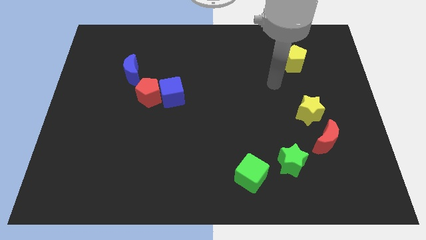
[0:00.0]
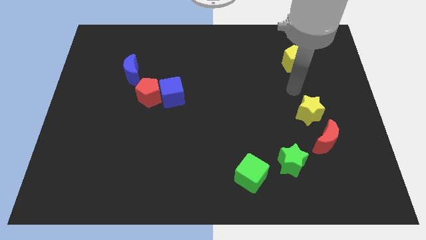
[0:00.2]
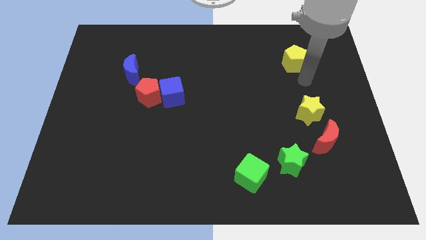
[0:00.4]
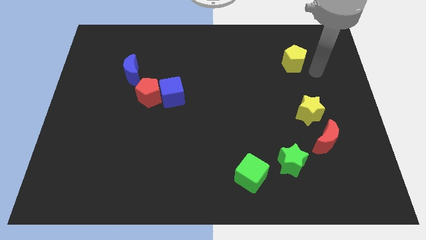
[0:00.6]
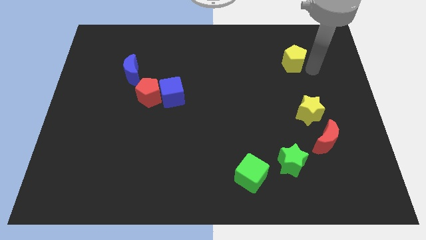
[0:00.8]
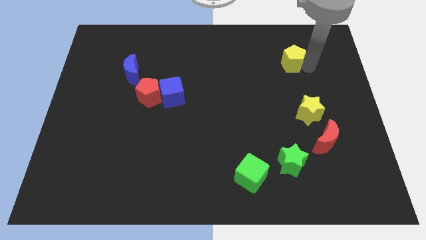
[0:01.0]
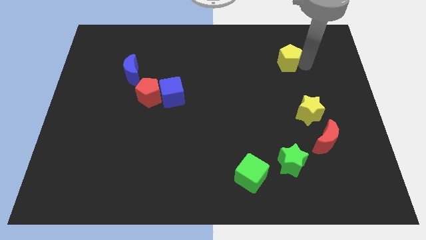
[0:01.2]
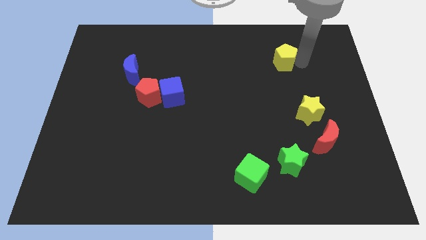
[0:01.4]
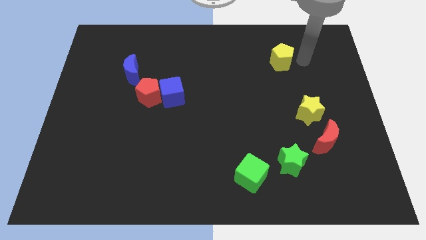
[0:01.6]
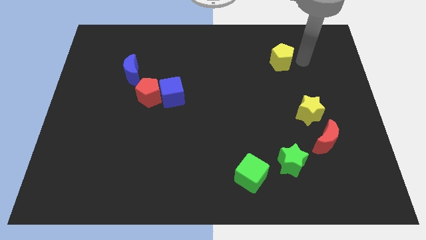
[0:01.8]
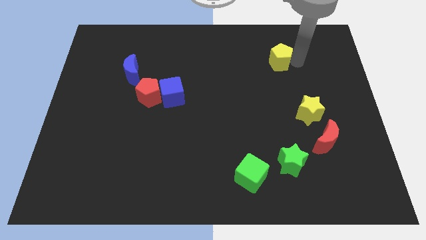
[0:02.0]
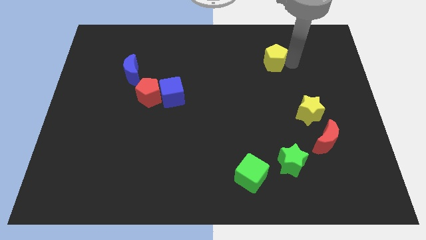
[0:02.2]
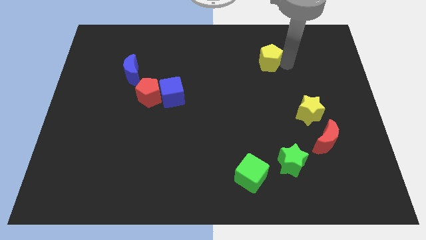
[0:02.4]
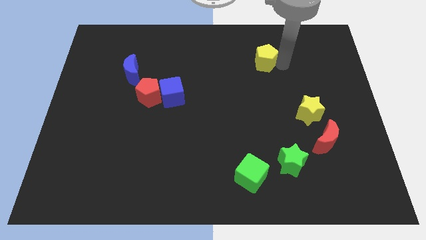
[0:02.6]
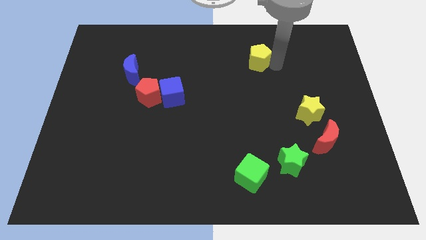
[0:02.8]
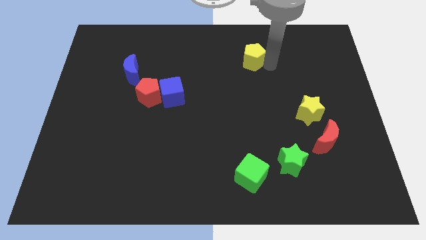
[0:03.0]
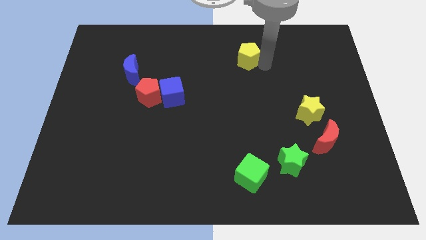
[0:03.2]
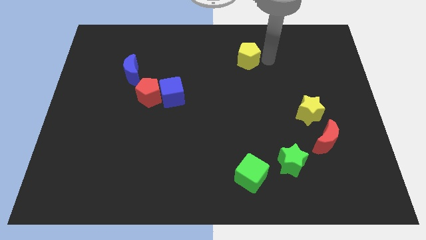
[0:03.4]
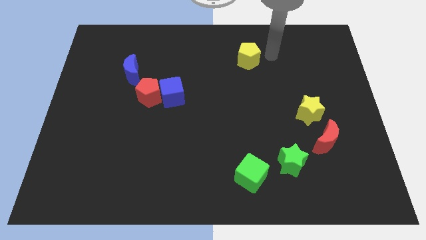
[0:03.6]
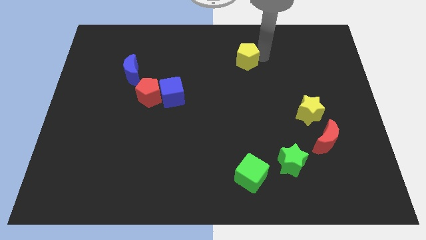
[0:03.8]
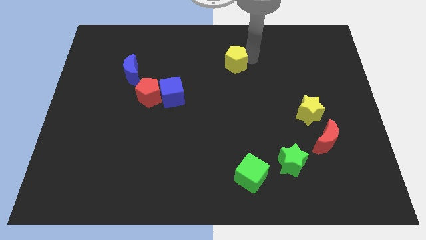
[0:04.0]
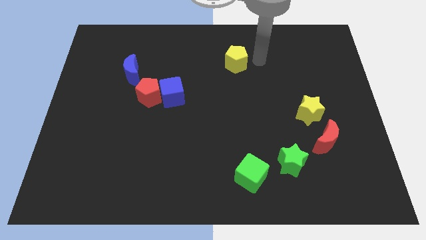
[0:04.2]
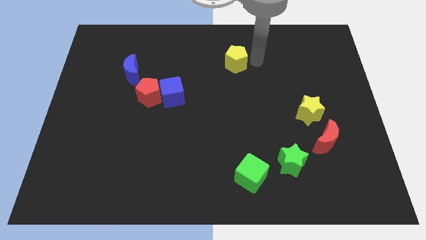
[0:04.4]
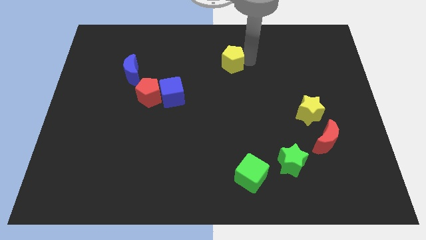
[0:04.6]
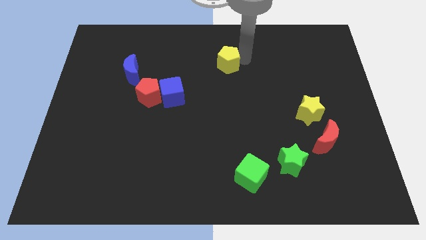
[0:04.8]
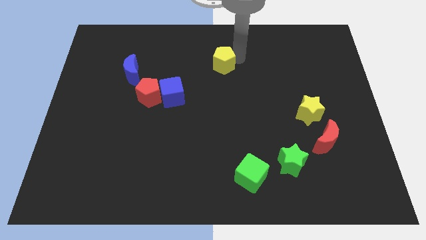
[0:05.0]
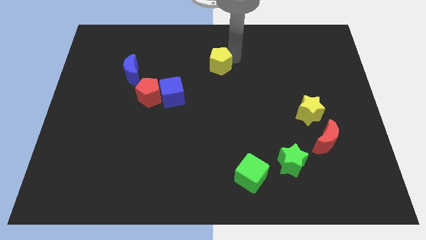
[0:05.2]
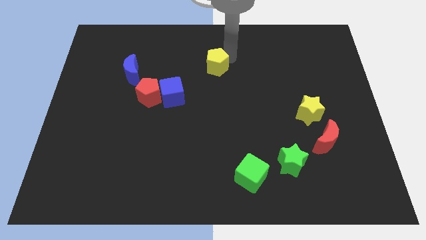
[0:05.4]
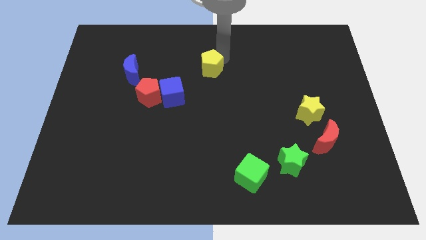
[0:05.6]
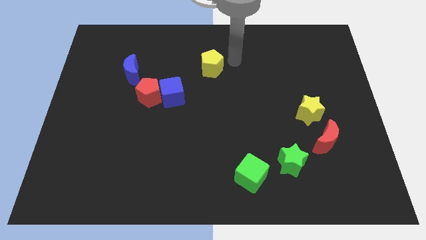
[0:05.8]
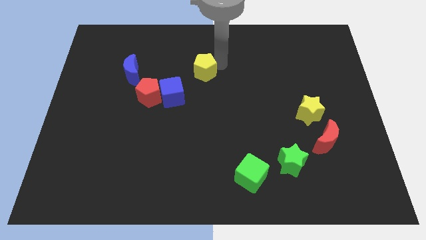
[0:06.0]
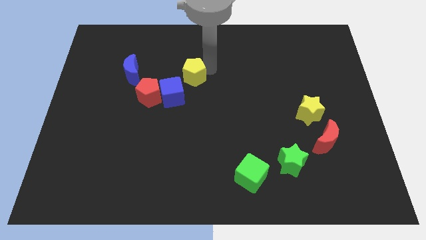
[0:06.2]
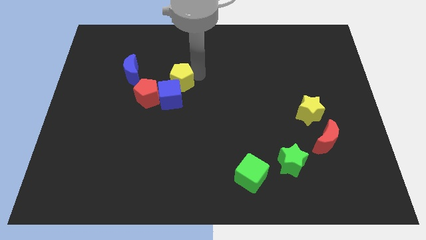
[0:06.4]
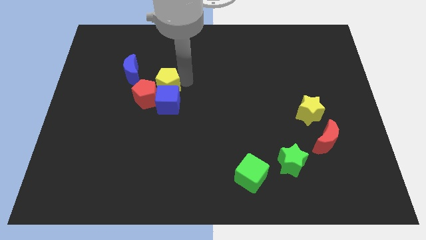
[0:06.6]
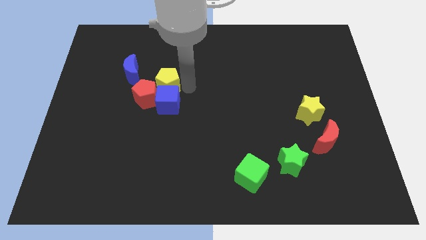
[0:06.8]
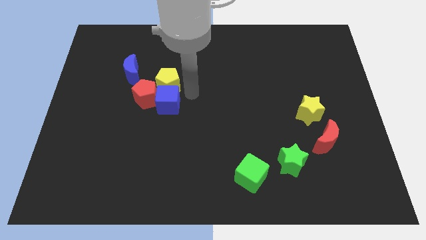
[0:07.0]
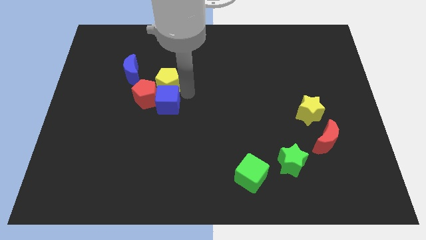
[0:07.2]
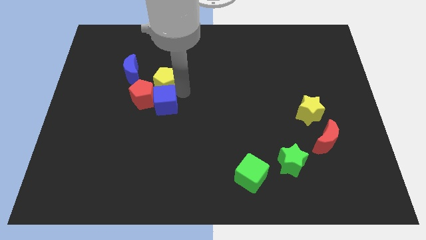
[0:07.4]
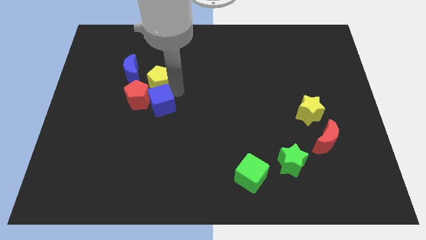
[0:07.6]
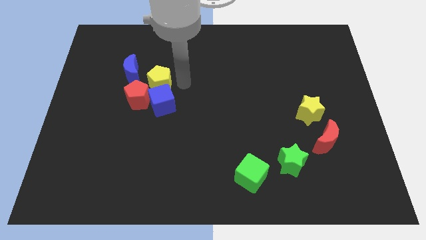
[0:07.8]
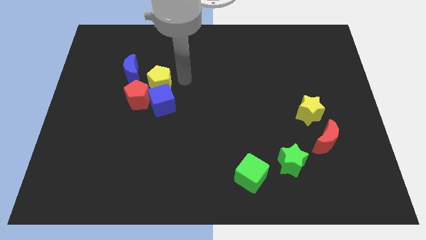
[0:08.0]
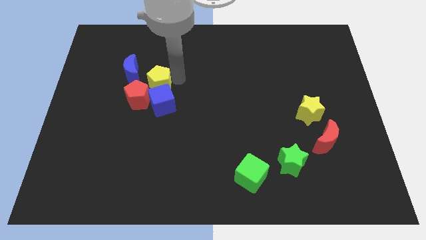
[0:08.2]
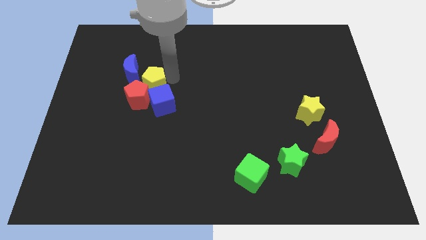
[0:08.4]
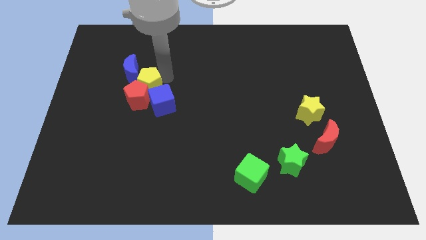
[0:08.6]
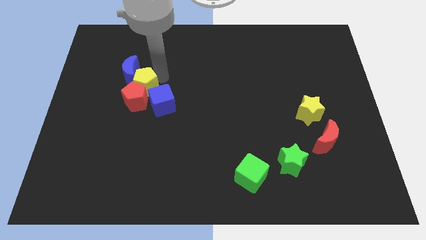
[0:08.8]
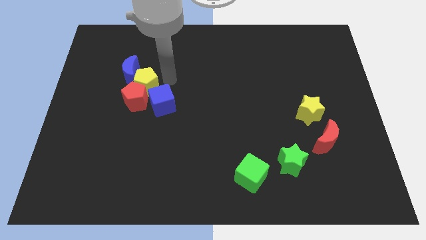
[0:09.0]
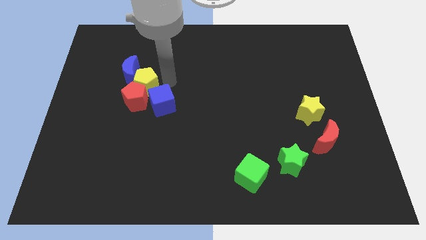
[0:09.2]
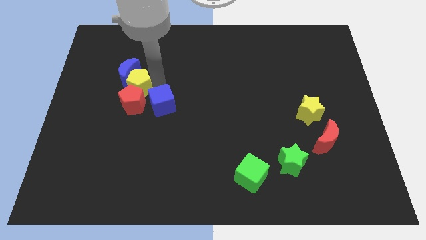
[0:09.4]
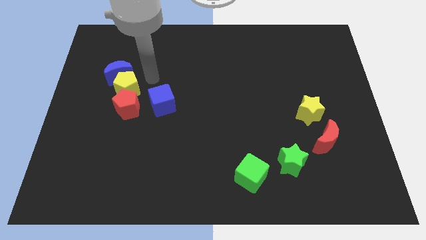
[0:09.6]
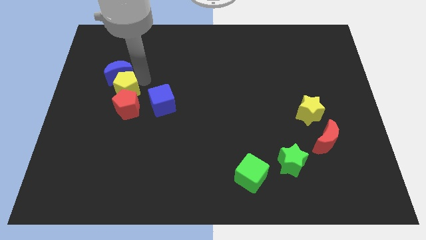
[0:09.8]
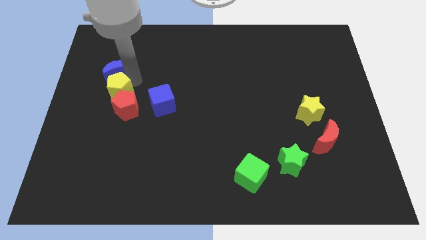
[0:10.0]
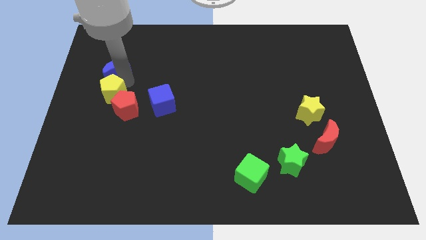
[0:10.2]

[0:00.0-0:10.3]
put the yellow pentagon left of the red pentagon

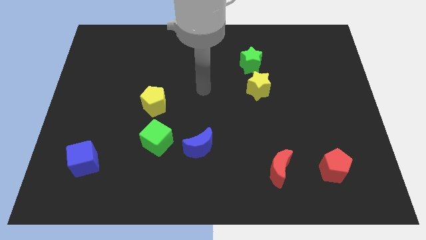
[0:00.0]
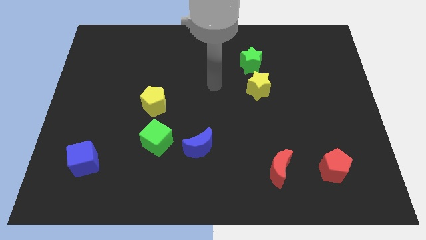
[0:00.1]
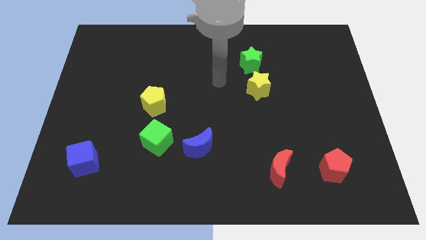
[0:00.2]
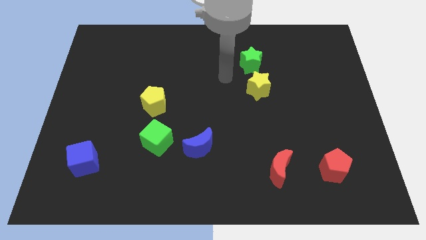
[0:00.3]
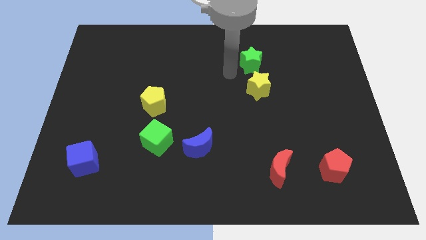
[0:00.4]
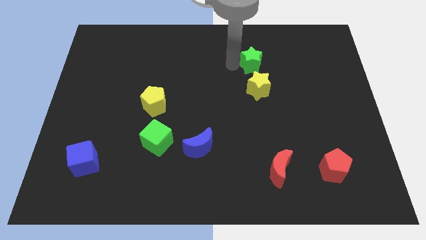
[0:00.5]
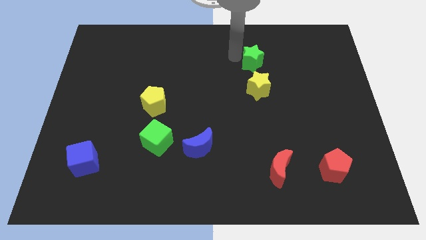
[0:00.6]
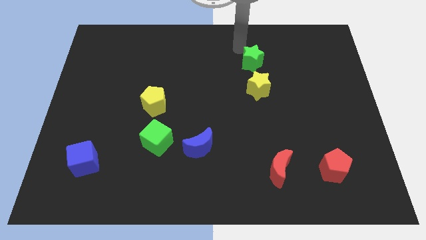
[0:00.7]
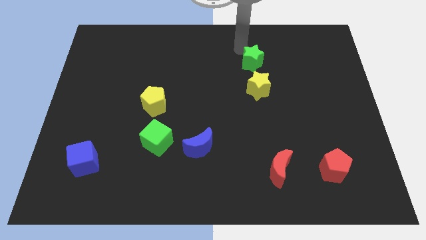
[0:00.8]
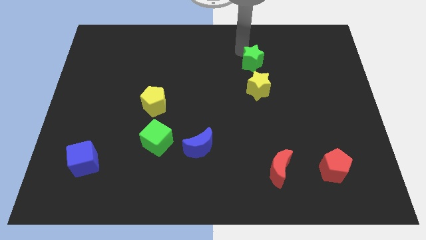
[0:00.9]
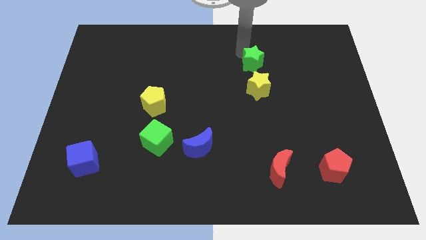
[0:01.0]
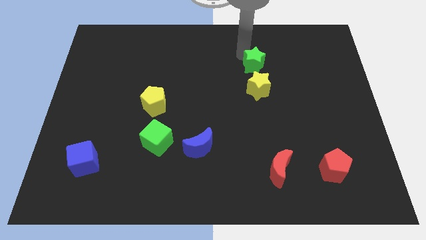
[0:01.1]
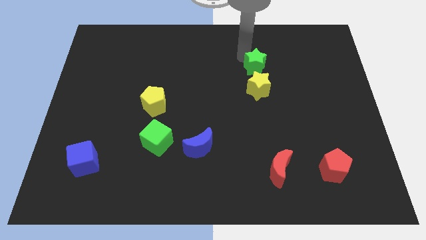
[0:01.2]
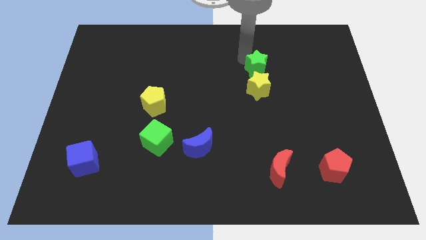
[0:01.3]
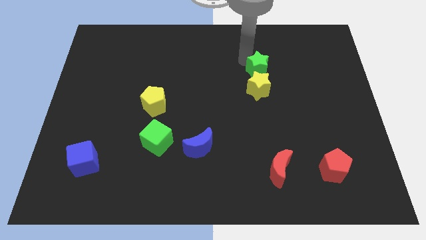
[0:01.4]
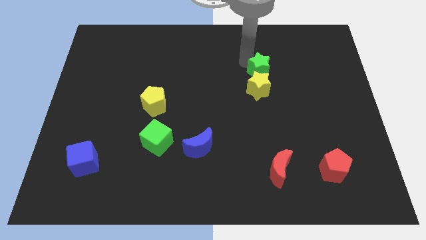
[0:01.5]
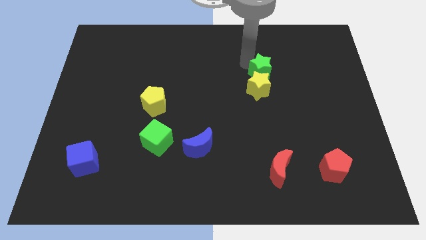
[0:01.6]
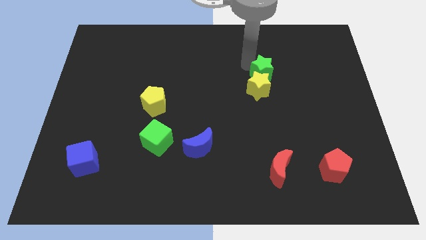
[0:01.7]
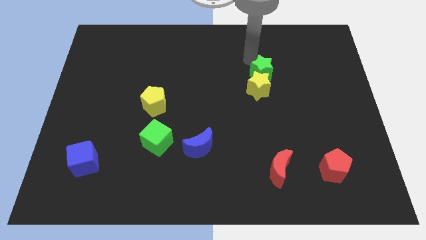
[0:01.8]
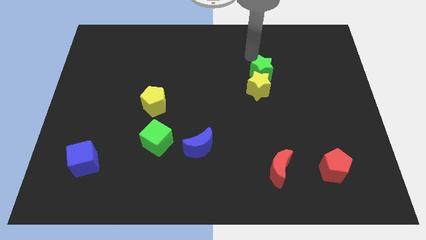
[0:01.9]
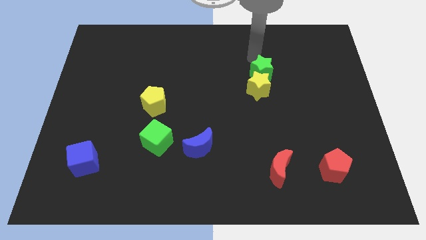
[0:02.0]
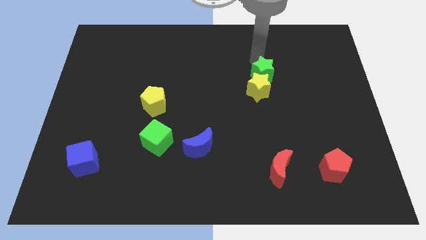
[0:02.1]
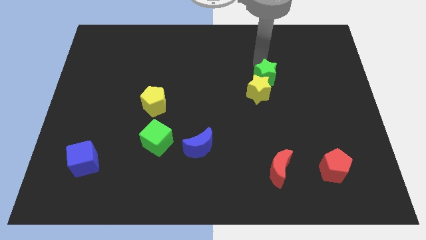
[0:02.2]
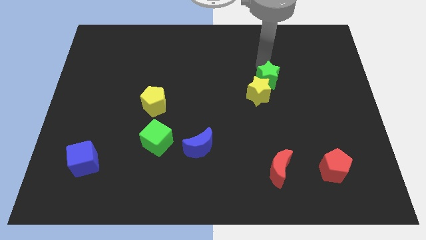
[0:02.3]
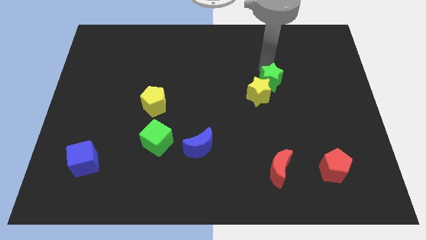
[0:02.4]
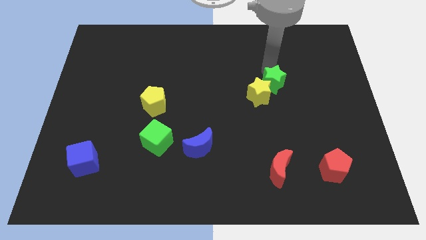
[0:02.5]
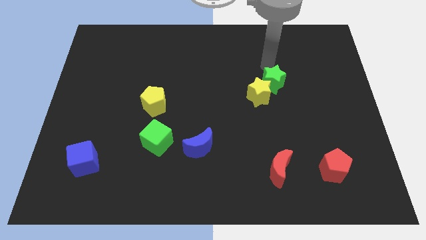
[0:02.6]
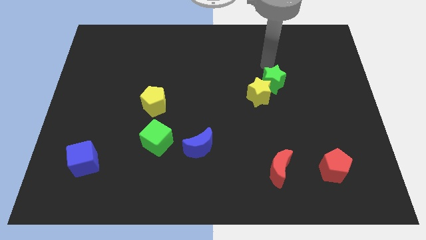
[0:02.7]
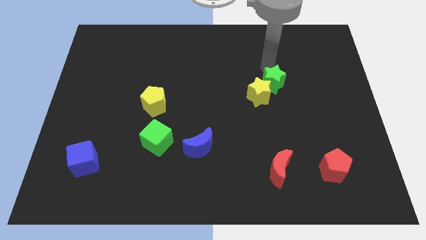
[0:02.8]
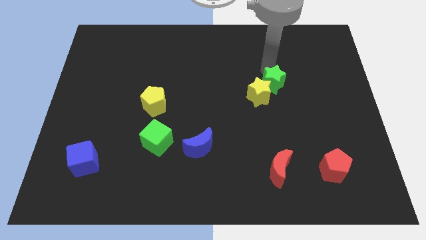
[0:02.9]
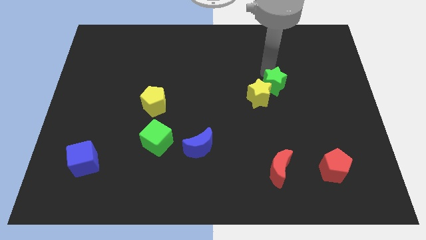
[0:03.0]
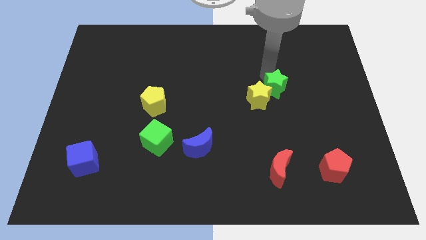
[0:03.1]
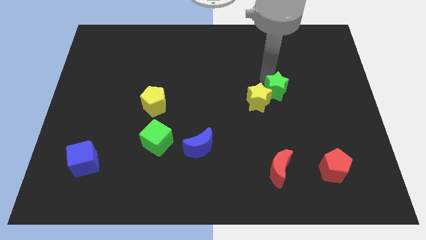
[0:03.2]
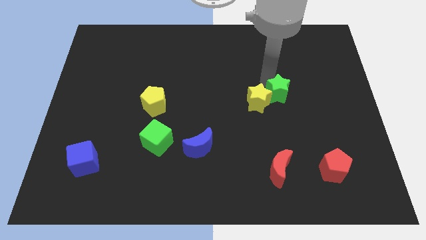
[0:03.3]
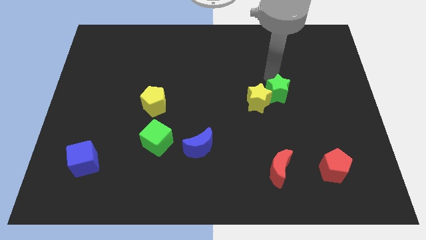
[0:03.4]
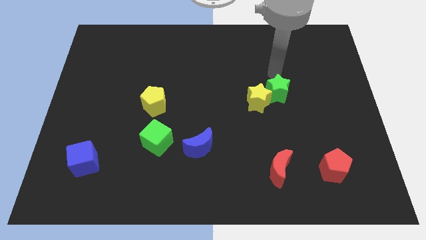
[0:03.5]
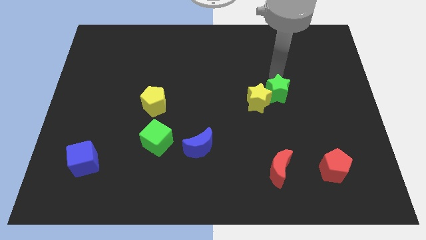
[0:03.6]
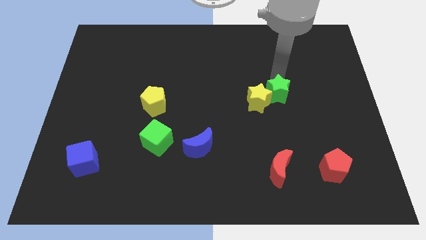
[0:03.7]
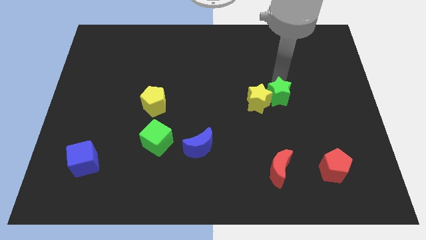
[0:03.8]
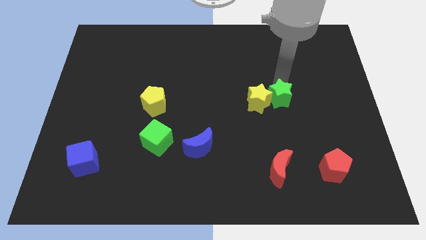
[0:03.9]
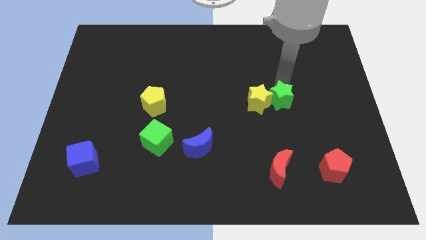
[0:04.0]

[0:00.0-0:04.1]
put the green star to the bottom right of the yellow star
